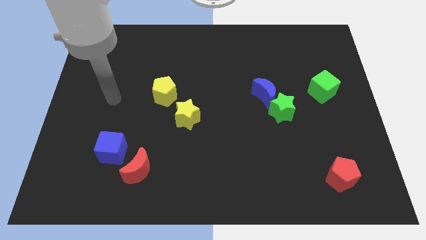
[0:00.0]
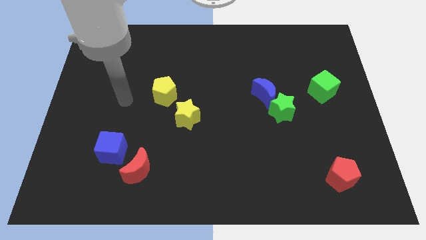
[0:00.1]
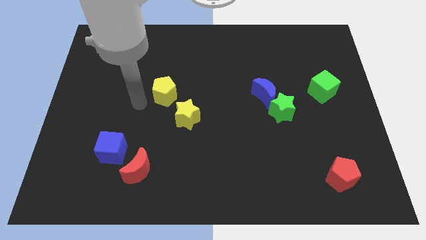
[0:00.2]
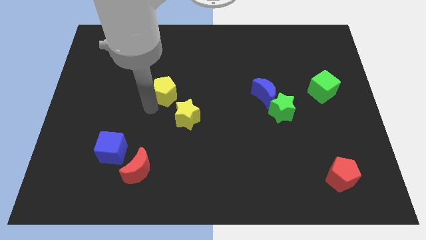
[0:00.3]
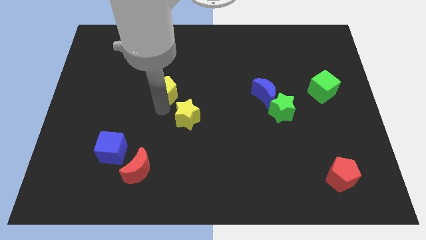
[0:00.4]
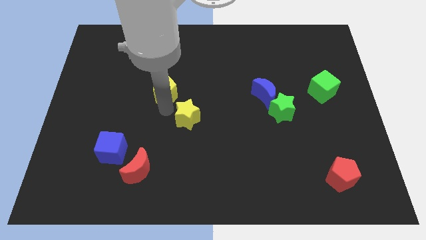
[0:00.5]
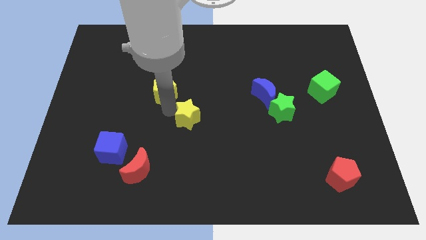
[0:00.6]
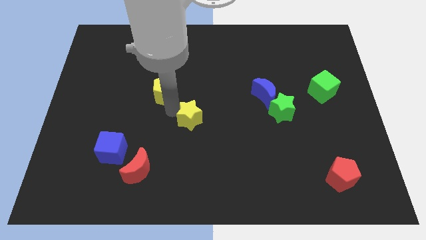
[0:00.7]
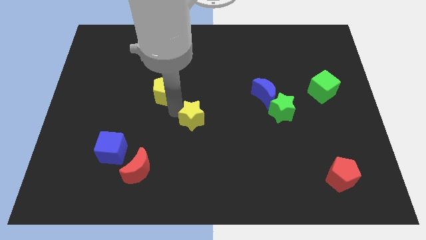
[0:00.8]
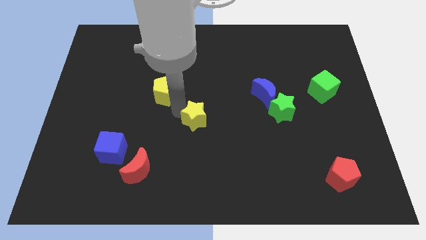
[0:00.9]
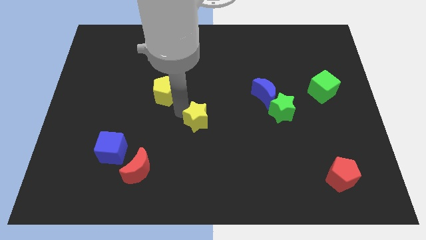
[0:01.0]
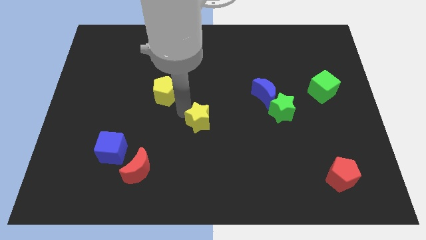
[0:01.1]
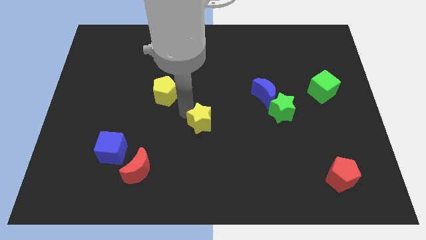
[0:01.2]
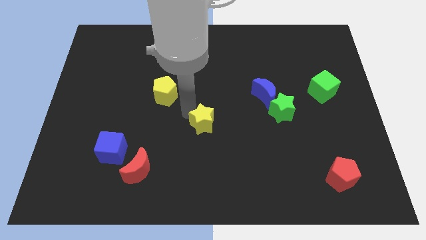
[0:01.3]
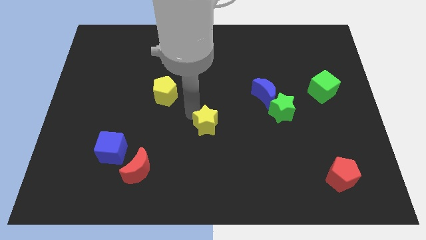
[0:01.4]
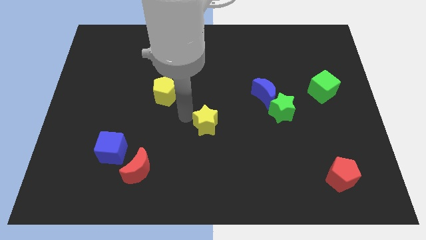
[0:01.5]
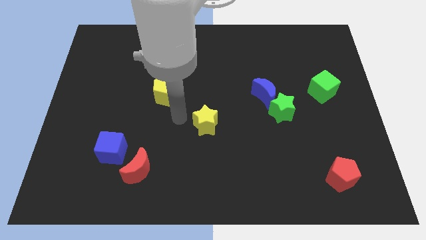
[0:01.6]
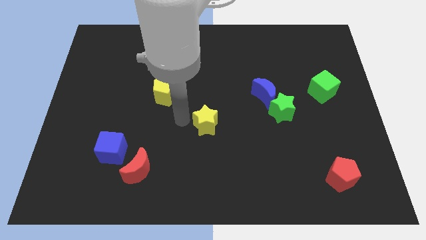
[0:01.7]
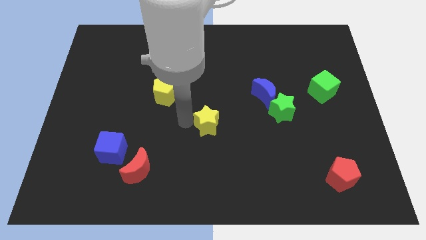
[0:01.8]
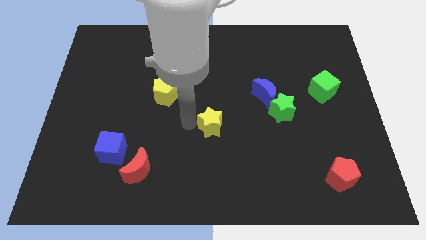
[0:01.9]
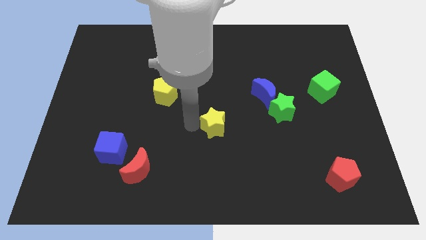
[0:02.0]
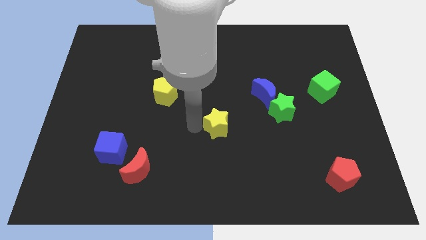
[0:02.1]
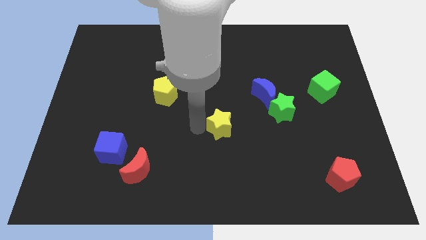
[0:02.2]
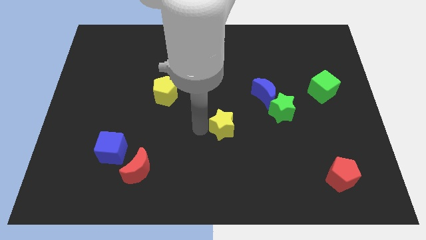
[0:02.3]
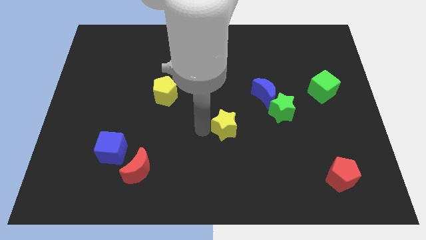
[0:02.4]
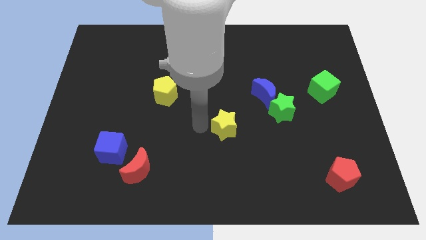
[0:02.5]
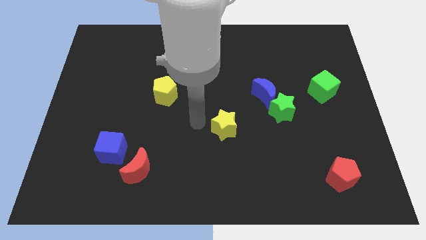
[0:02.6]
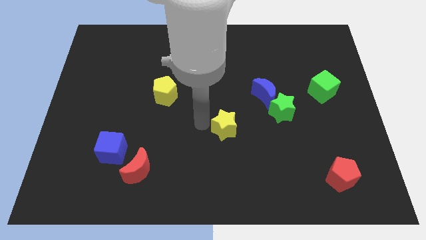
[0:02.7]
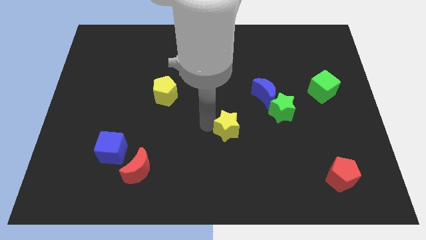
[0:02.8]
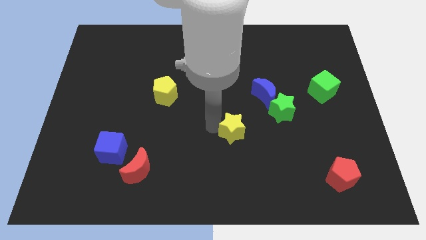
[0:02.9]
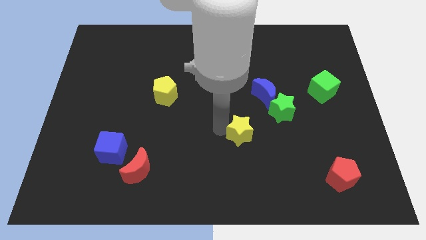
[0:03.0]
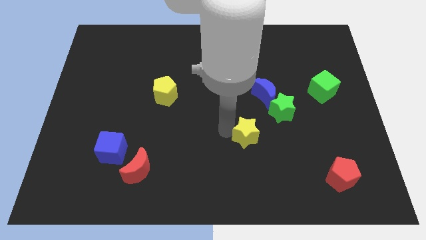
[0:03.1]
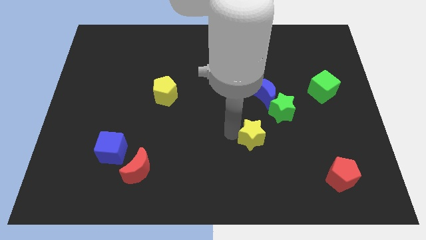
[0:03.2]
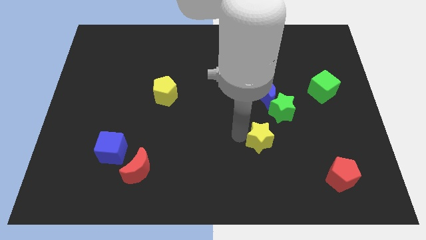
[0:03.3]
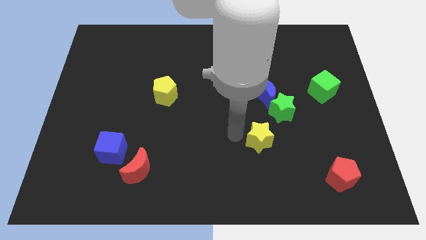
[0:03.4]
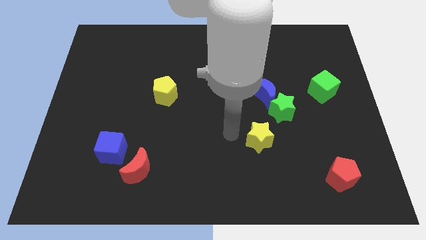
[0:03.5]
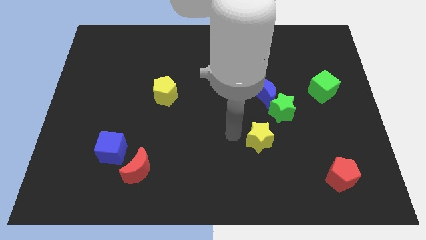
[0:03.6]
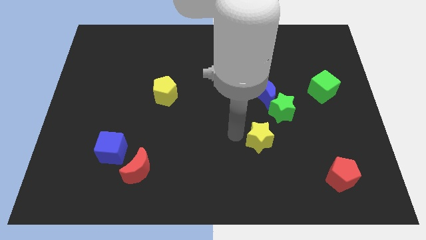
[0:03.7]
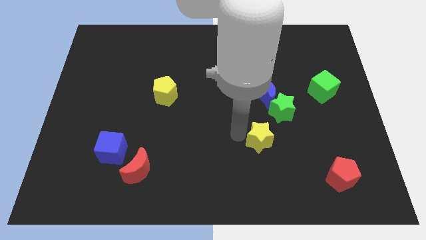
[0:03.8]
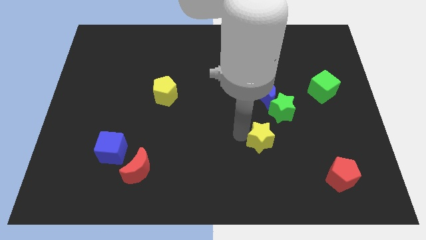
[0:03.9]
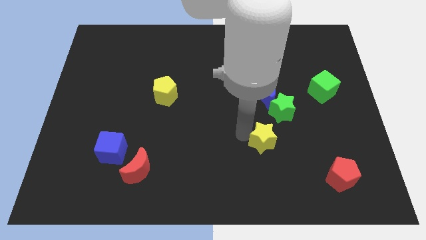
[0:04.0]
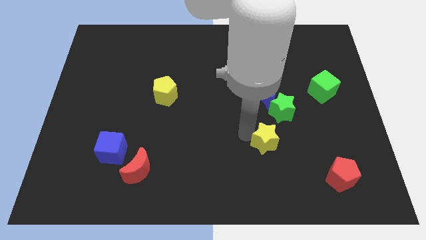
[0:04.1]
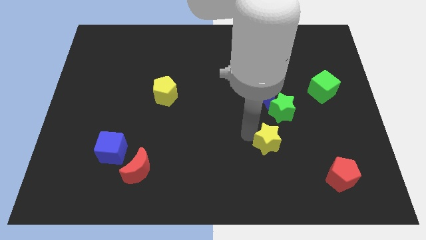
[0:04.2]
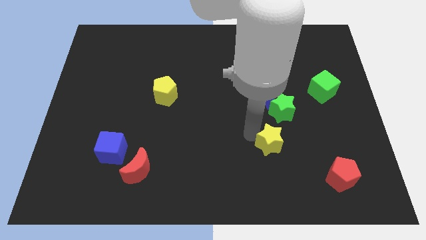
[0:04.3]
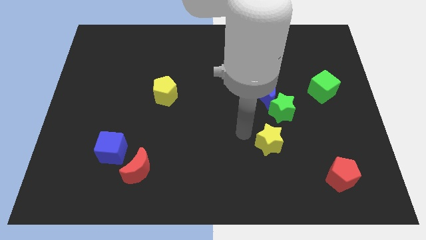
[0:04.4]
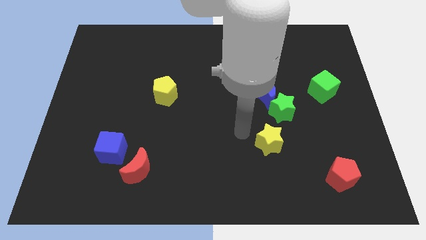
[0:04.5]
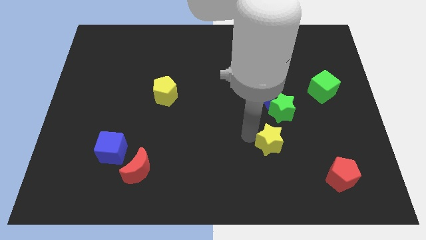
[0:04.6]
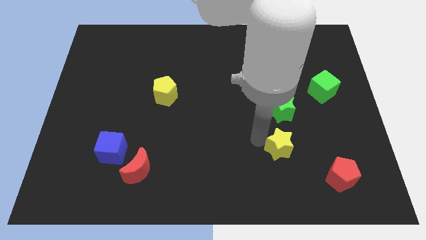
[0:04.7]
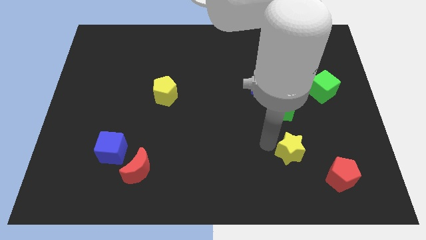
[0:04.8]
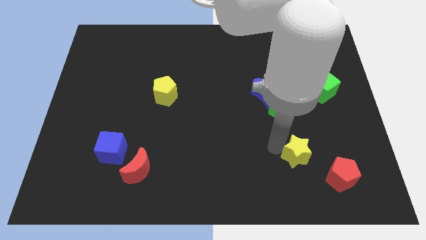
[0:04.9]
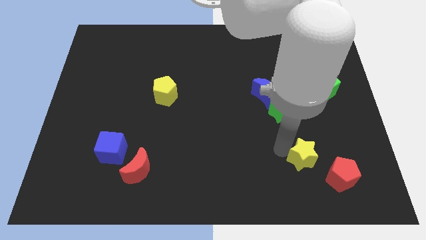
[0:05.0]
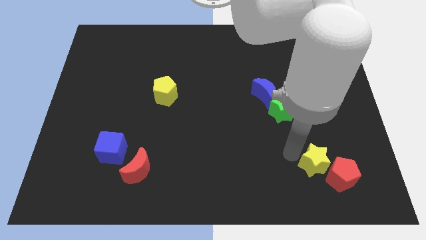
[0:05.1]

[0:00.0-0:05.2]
move the yellow star next to the red pentagon

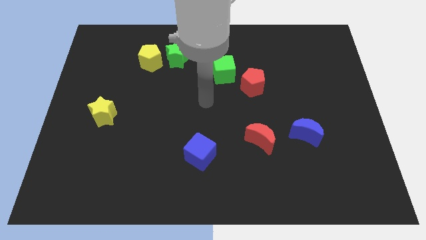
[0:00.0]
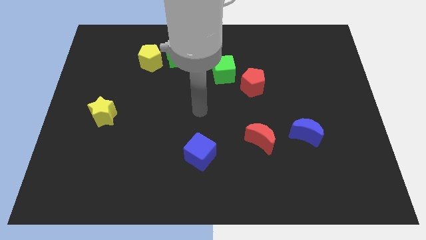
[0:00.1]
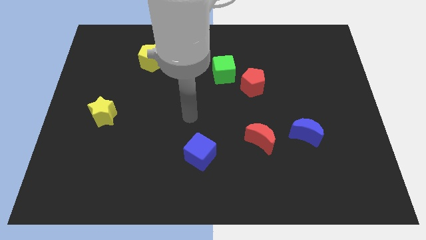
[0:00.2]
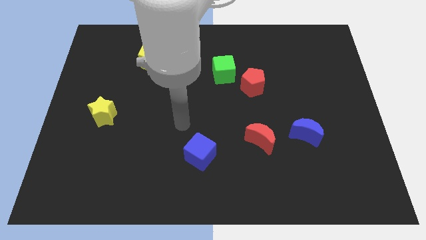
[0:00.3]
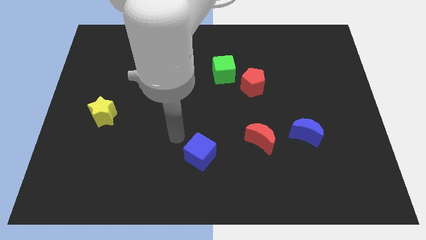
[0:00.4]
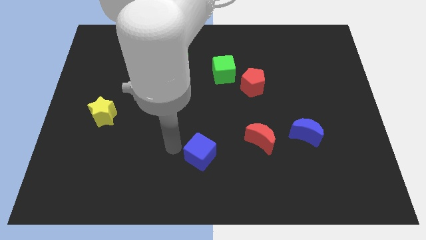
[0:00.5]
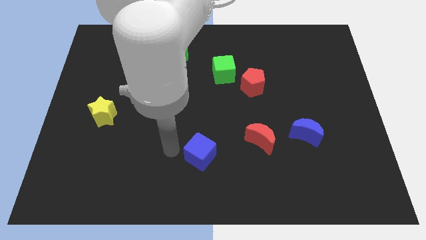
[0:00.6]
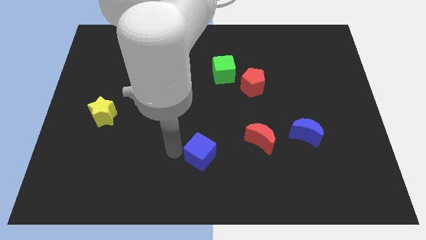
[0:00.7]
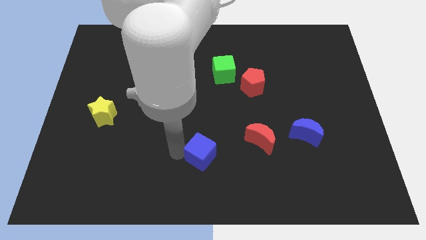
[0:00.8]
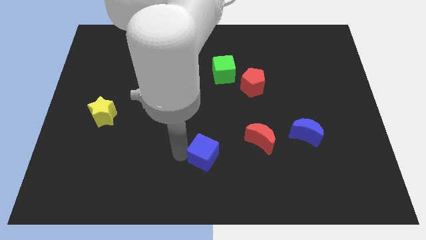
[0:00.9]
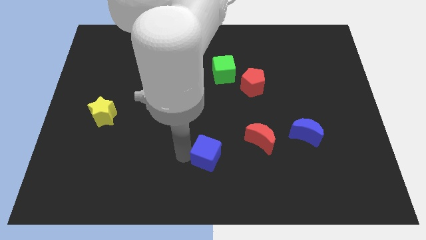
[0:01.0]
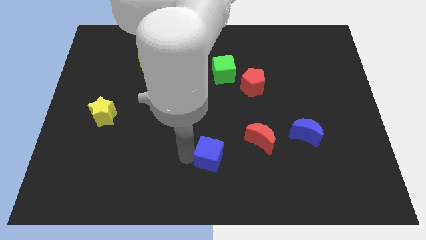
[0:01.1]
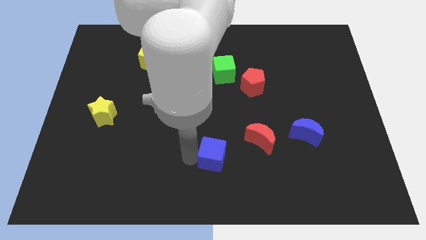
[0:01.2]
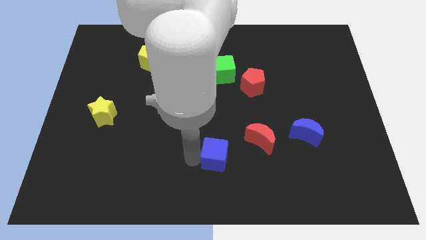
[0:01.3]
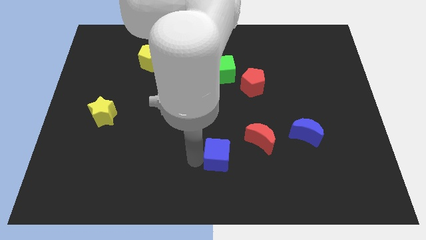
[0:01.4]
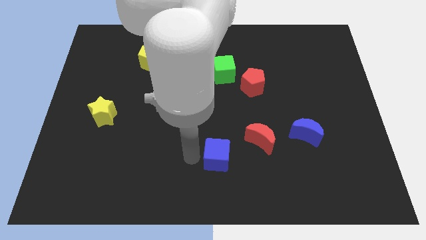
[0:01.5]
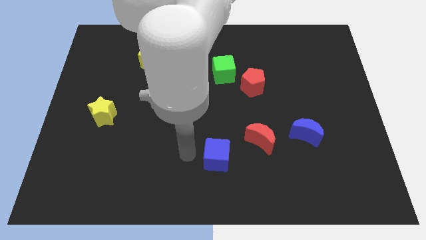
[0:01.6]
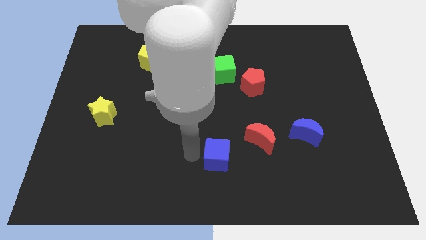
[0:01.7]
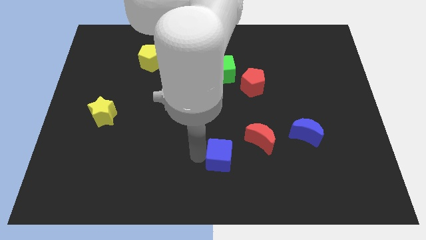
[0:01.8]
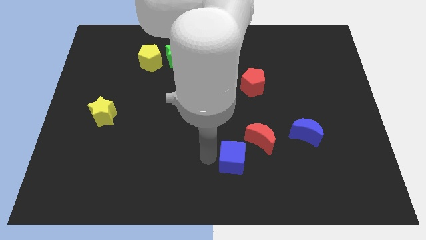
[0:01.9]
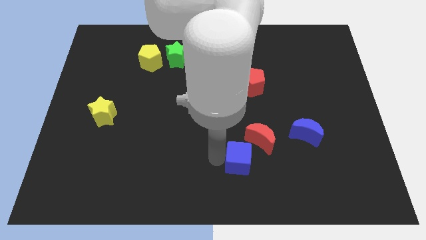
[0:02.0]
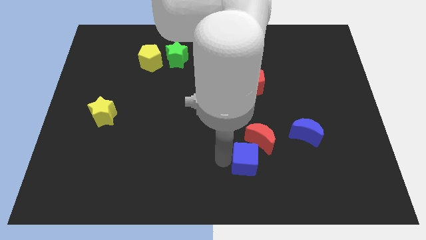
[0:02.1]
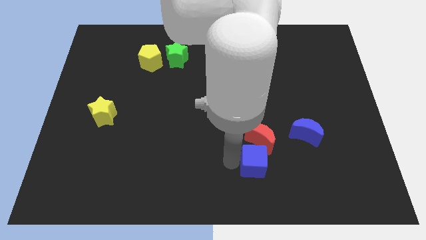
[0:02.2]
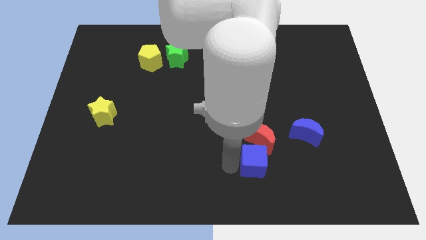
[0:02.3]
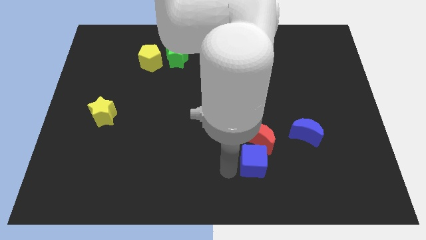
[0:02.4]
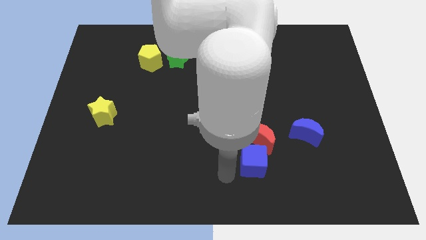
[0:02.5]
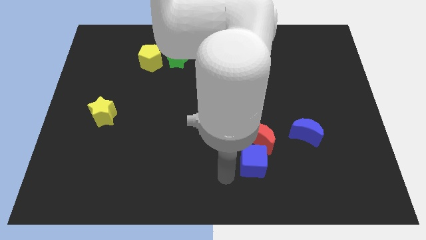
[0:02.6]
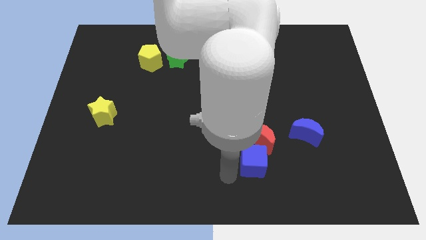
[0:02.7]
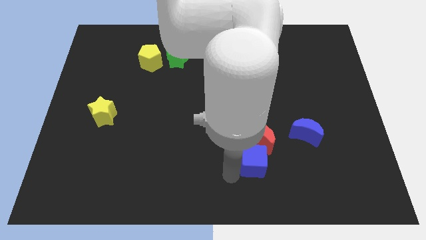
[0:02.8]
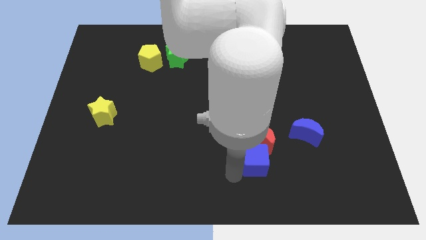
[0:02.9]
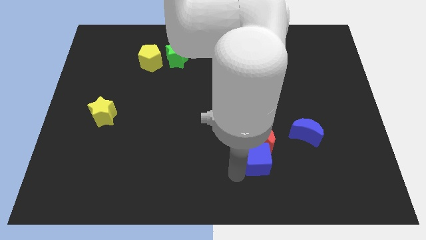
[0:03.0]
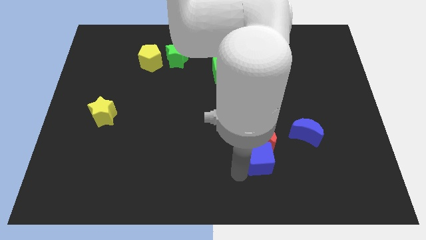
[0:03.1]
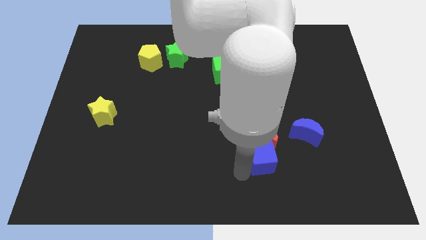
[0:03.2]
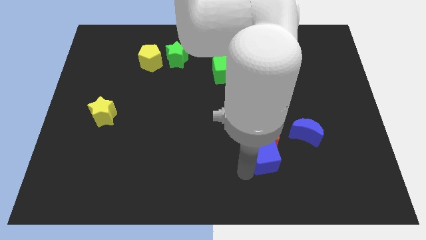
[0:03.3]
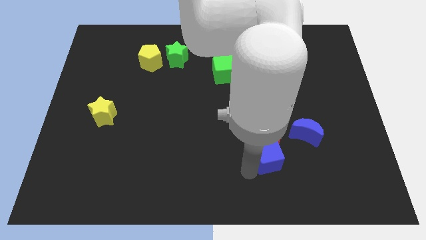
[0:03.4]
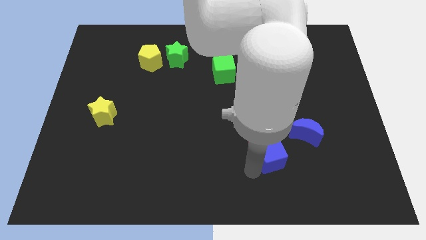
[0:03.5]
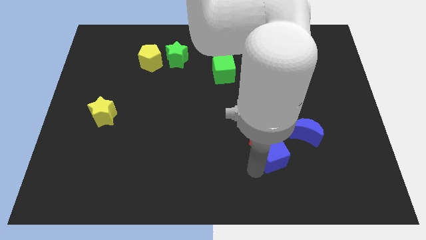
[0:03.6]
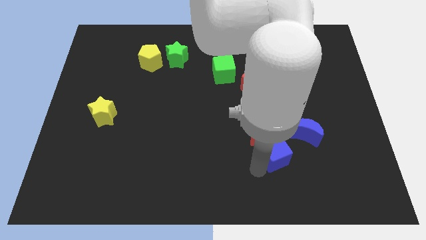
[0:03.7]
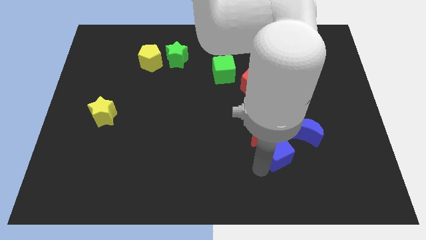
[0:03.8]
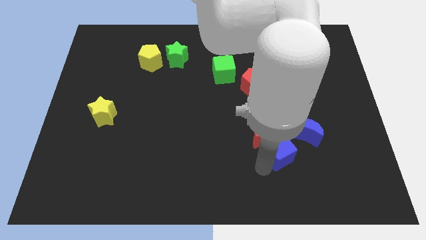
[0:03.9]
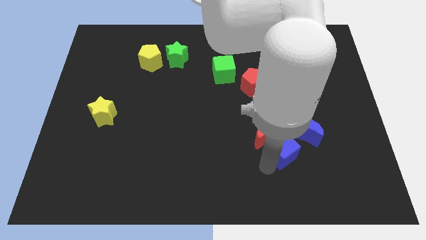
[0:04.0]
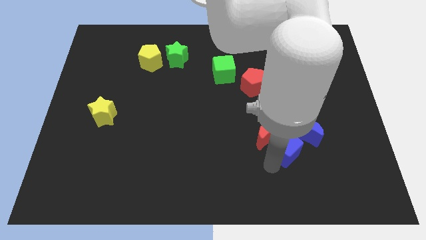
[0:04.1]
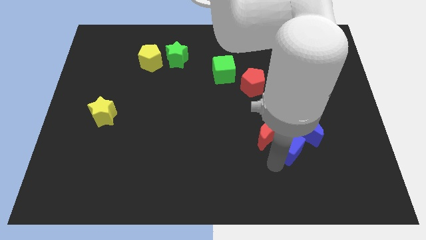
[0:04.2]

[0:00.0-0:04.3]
put the blue cube towards the blue moon
